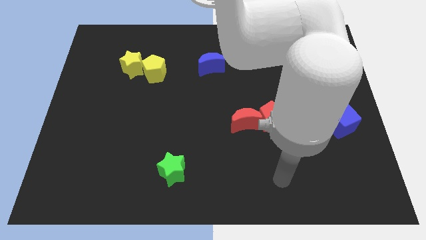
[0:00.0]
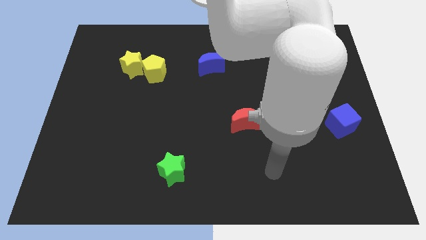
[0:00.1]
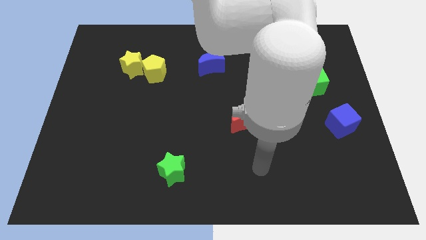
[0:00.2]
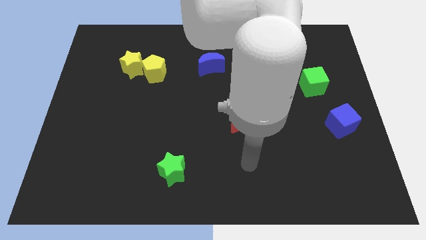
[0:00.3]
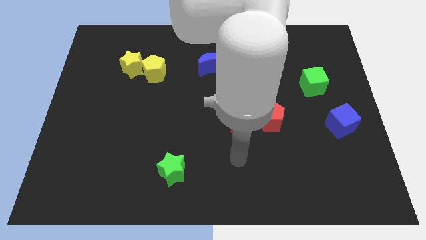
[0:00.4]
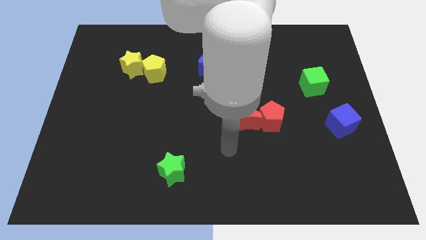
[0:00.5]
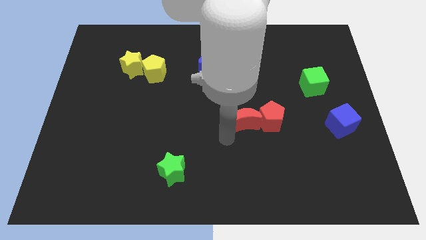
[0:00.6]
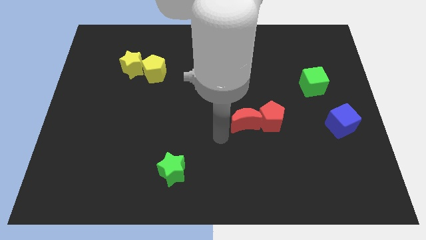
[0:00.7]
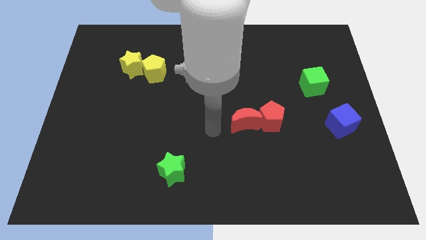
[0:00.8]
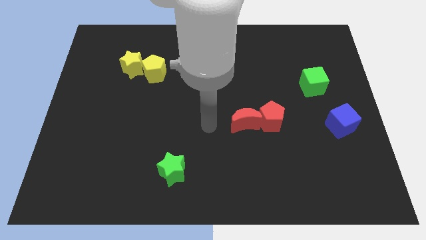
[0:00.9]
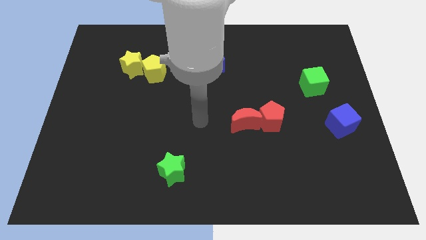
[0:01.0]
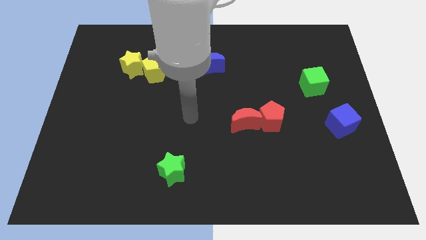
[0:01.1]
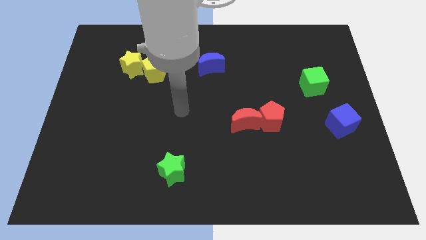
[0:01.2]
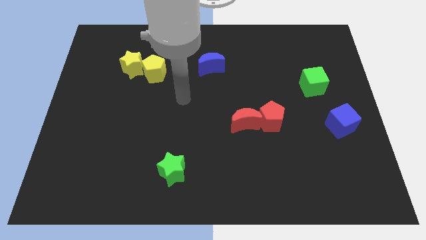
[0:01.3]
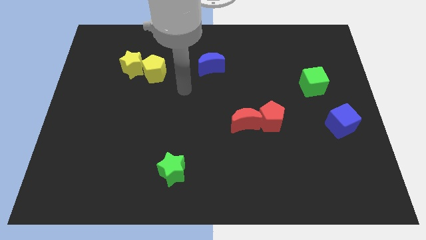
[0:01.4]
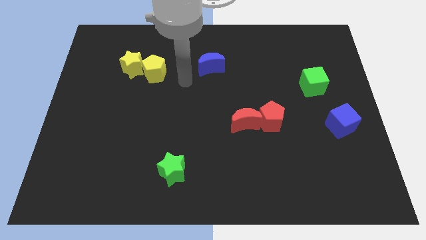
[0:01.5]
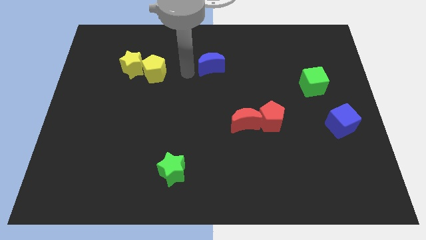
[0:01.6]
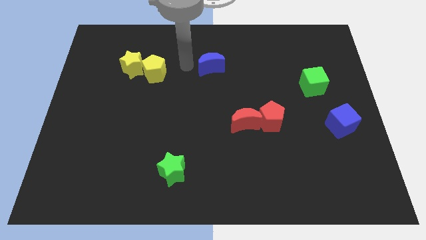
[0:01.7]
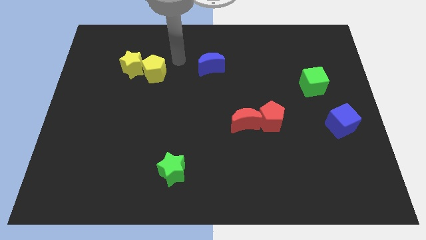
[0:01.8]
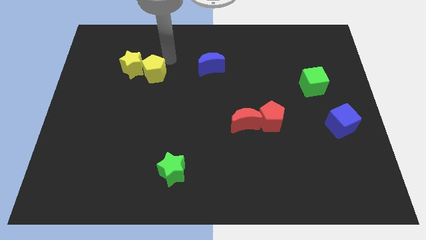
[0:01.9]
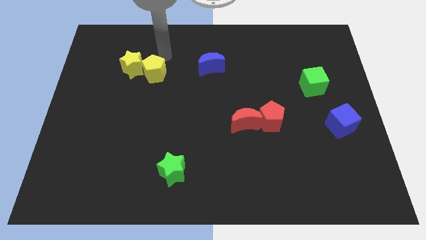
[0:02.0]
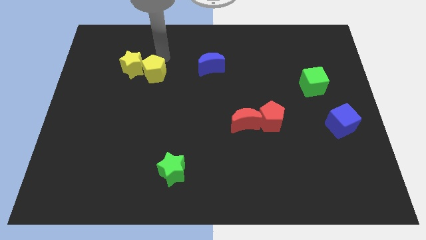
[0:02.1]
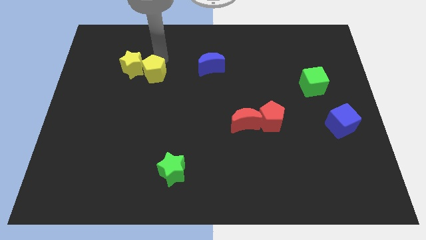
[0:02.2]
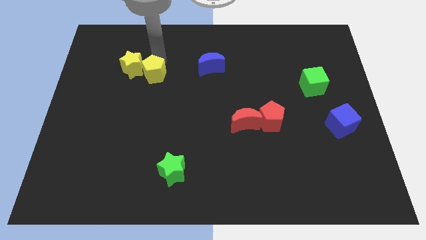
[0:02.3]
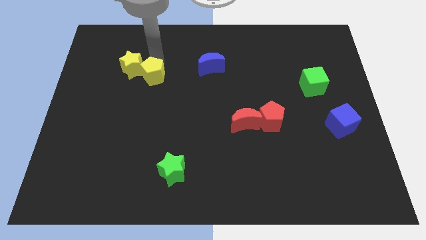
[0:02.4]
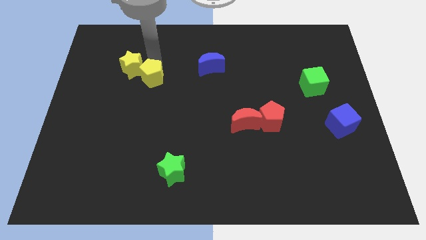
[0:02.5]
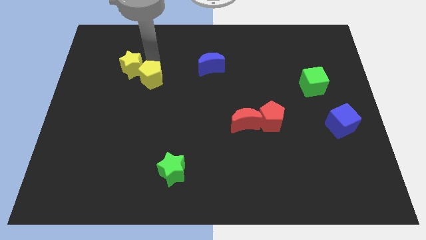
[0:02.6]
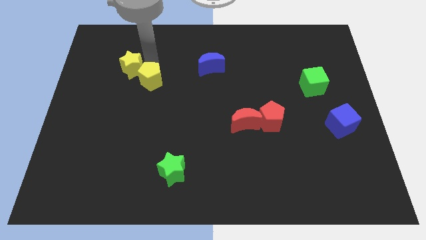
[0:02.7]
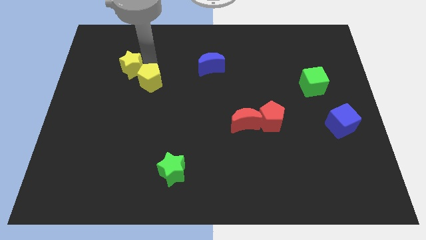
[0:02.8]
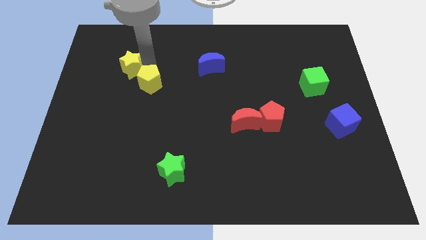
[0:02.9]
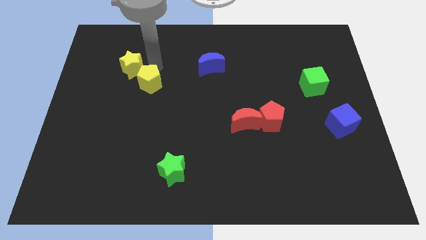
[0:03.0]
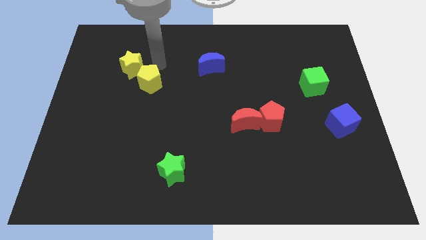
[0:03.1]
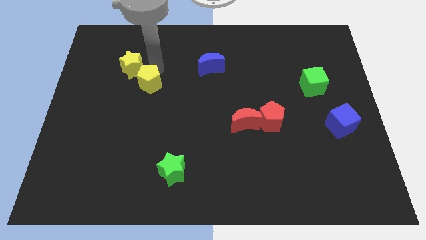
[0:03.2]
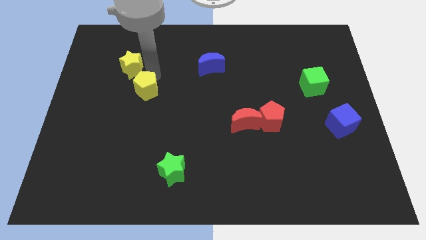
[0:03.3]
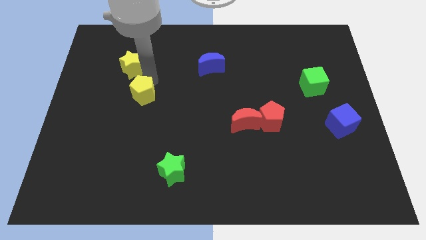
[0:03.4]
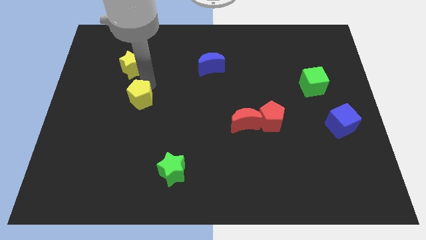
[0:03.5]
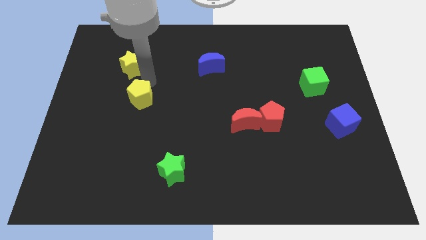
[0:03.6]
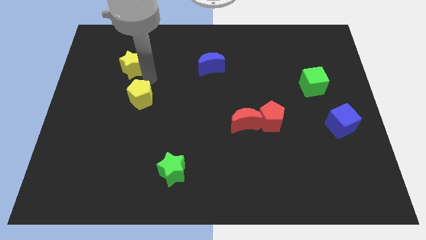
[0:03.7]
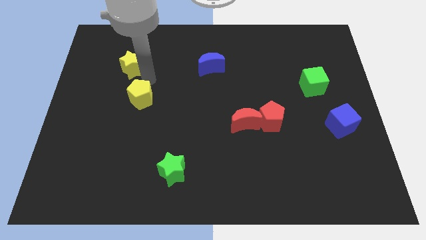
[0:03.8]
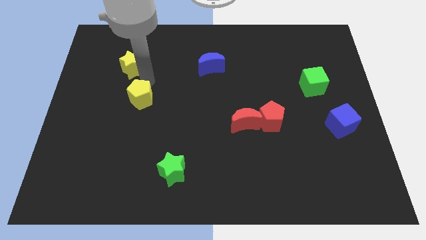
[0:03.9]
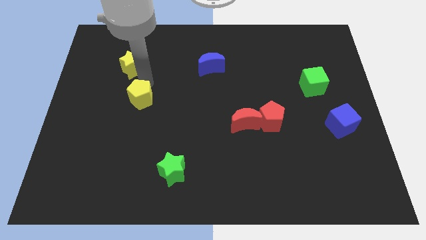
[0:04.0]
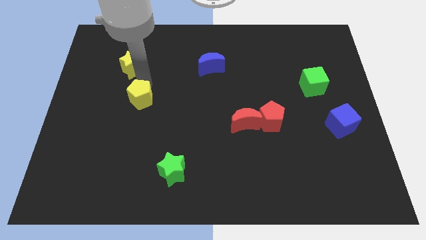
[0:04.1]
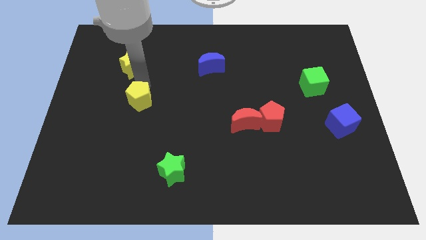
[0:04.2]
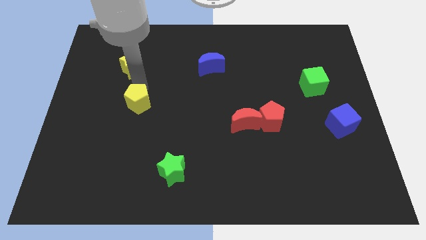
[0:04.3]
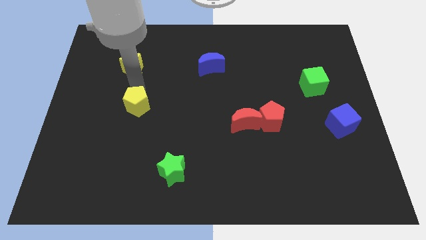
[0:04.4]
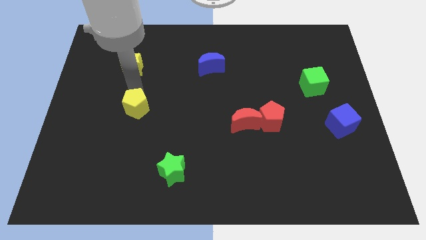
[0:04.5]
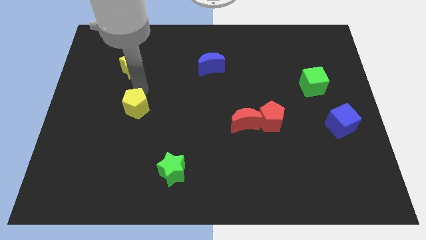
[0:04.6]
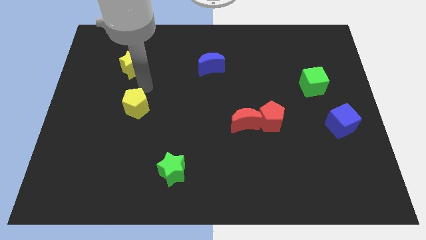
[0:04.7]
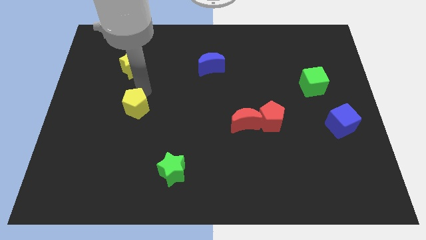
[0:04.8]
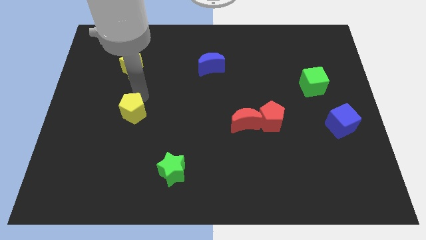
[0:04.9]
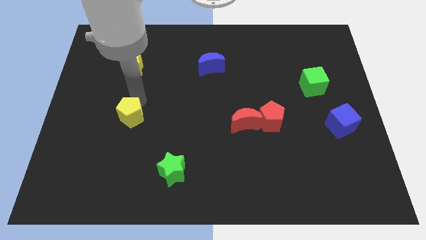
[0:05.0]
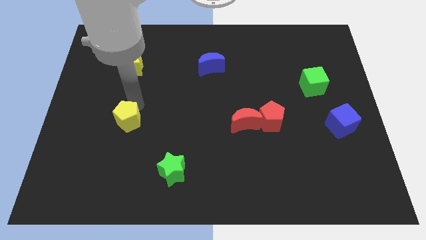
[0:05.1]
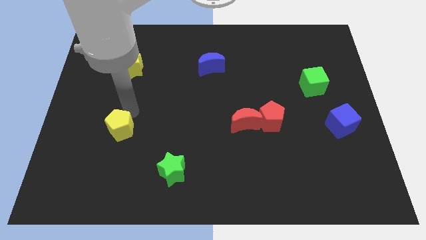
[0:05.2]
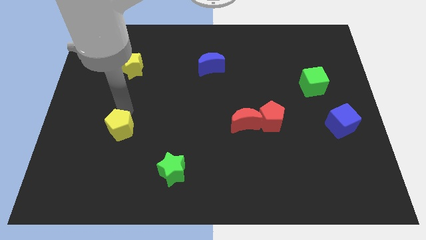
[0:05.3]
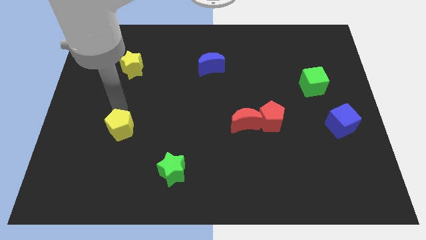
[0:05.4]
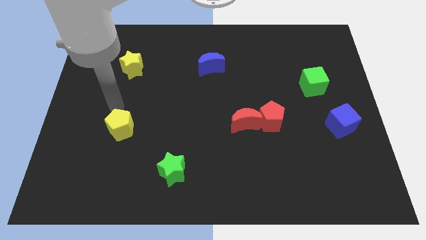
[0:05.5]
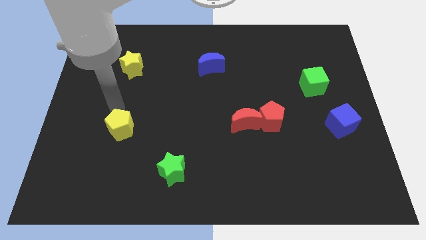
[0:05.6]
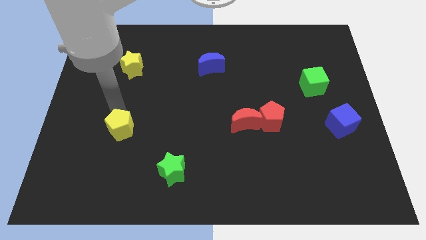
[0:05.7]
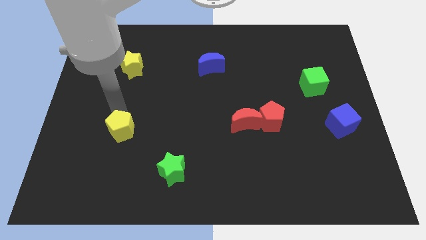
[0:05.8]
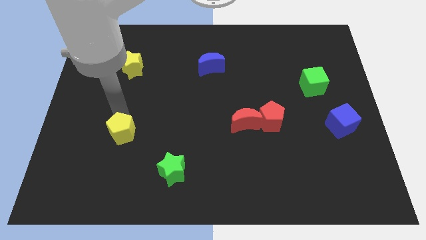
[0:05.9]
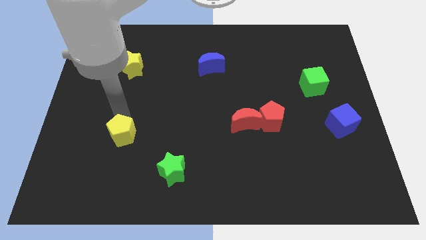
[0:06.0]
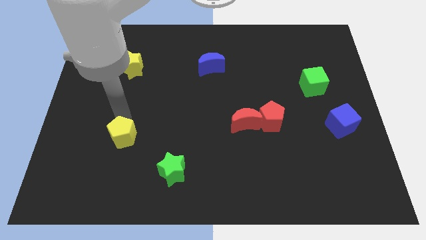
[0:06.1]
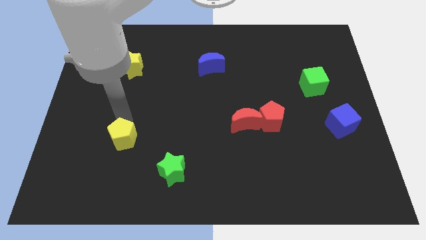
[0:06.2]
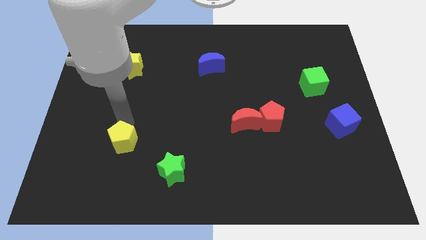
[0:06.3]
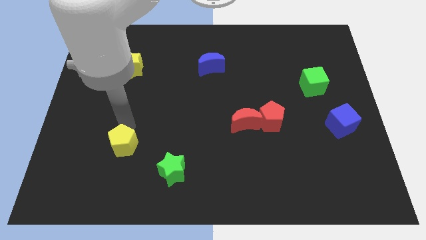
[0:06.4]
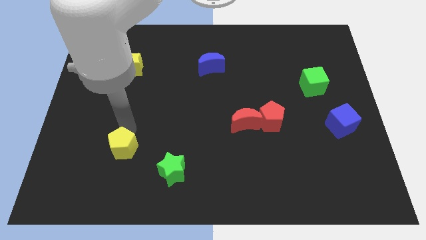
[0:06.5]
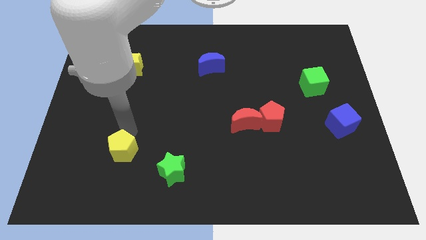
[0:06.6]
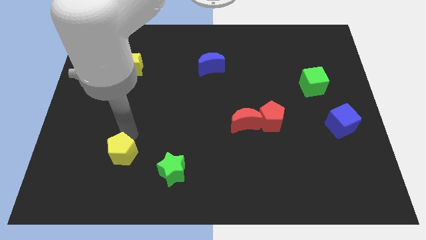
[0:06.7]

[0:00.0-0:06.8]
put the yellow pentagon to the left side of the green star

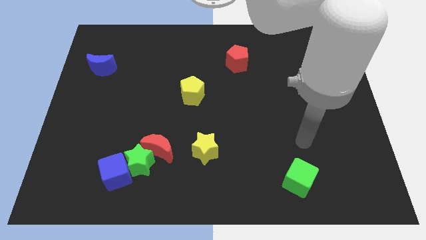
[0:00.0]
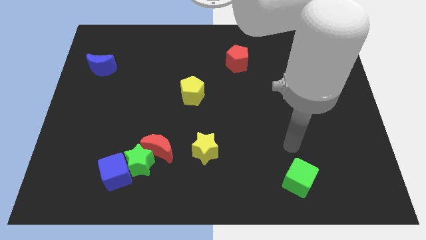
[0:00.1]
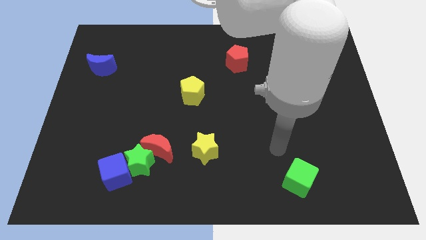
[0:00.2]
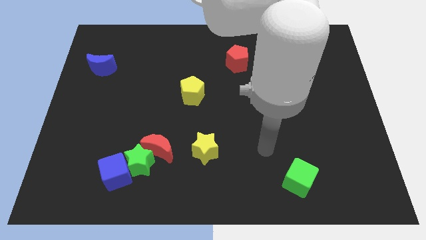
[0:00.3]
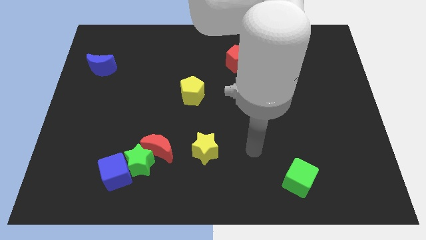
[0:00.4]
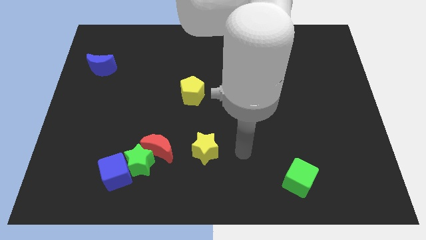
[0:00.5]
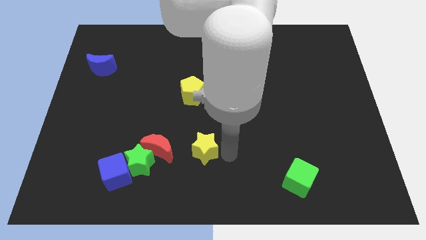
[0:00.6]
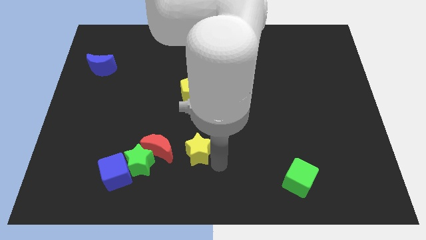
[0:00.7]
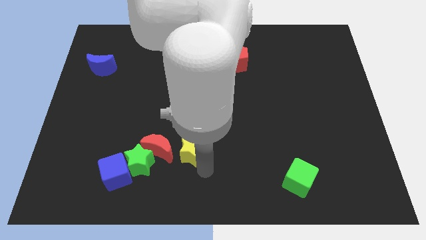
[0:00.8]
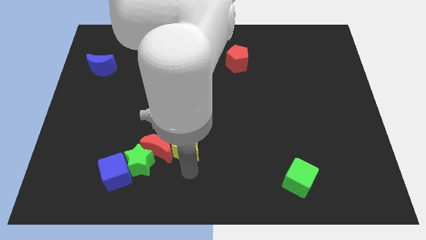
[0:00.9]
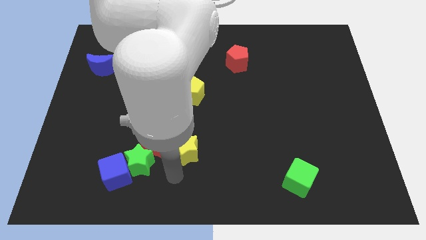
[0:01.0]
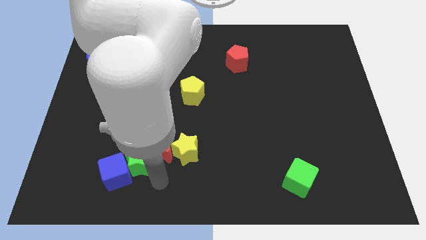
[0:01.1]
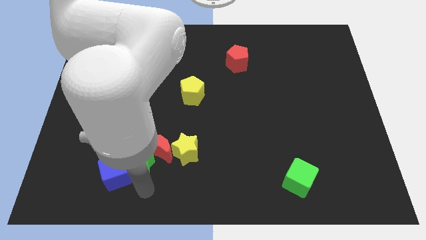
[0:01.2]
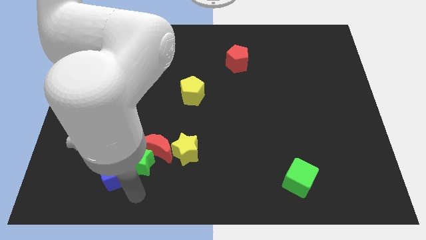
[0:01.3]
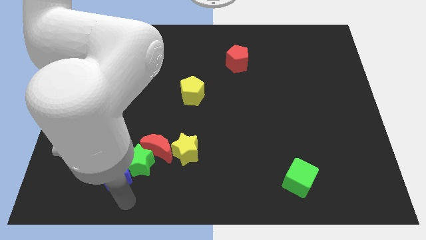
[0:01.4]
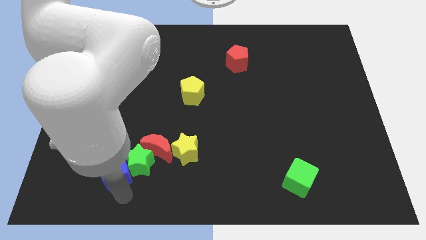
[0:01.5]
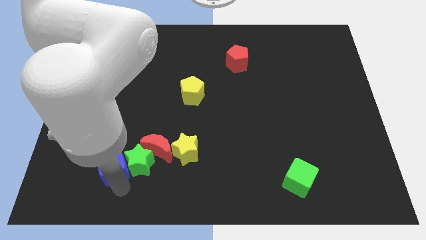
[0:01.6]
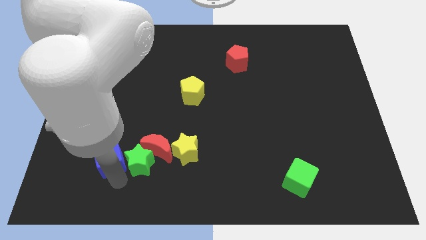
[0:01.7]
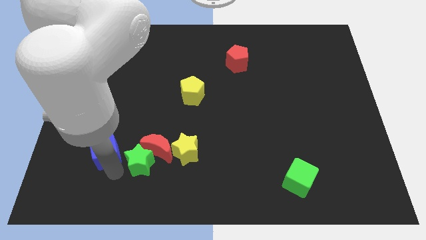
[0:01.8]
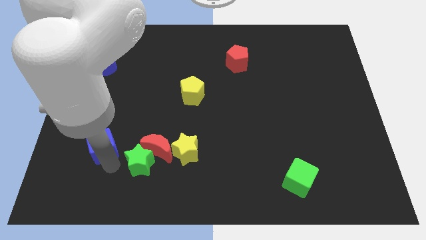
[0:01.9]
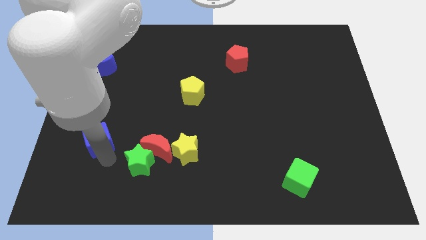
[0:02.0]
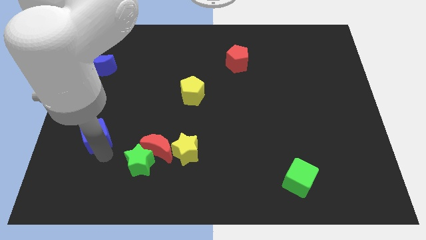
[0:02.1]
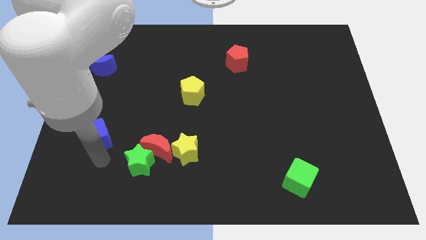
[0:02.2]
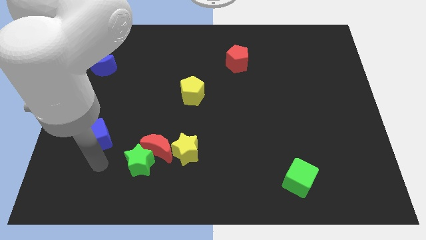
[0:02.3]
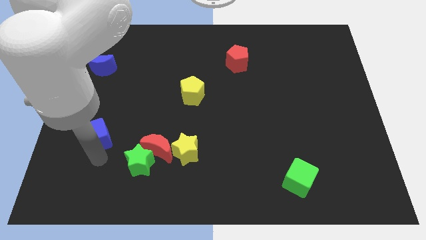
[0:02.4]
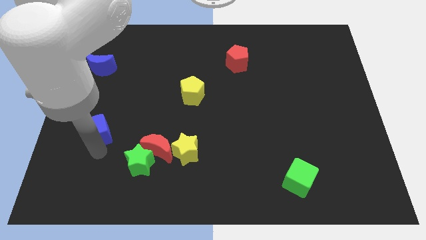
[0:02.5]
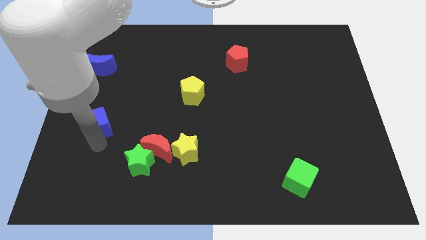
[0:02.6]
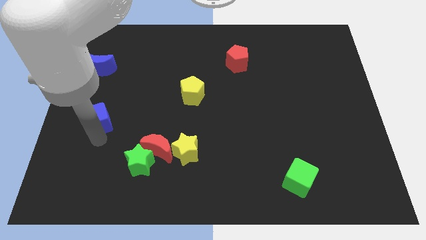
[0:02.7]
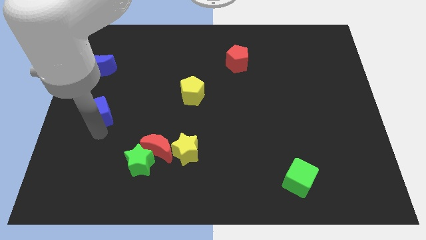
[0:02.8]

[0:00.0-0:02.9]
slide the blue cube to the bottom side of the blue moon
